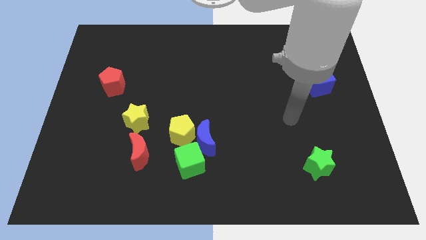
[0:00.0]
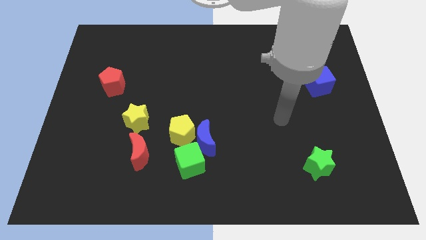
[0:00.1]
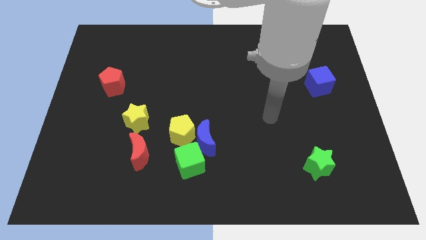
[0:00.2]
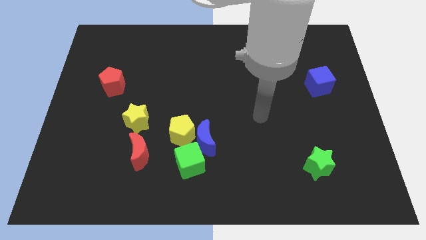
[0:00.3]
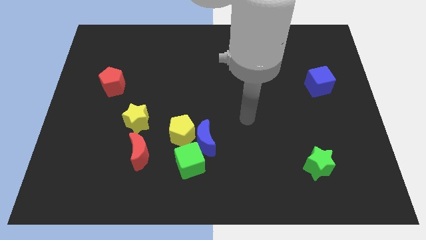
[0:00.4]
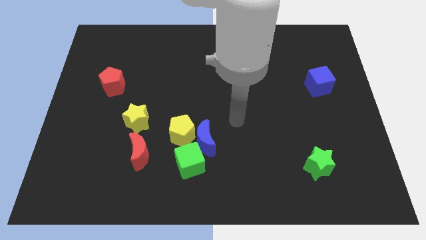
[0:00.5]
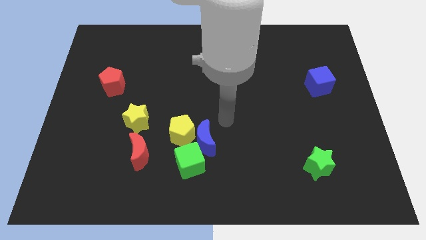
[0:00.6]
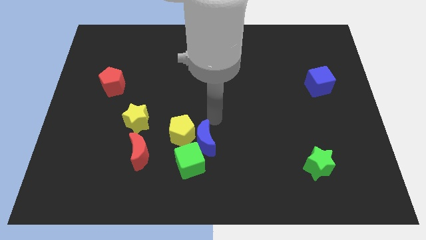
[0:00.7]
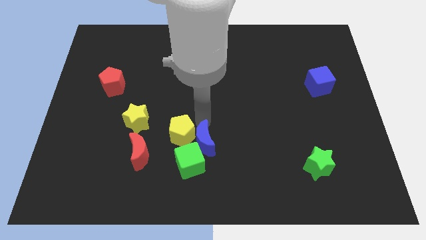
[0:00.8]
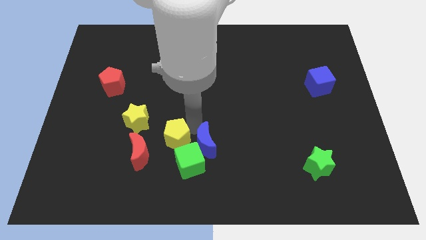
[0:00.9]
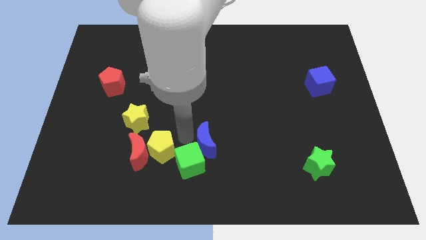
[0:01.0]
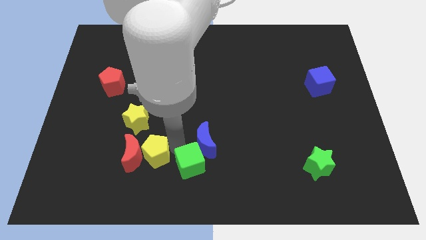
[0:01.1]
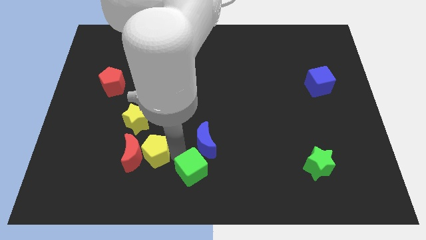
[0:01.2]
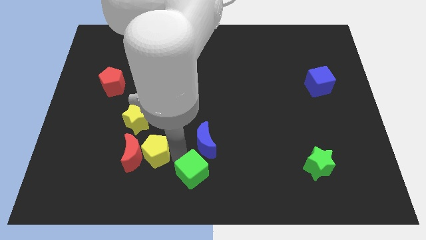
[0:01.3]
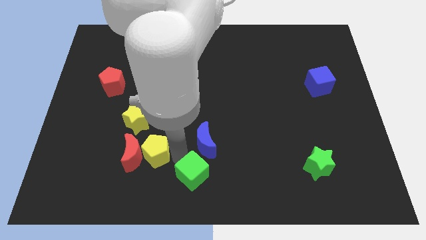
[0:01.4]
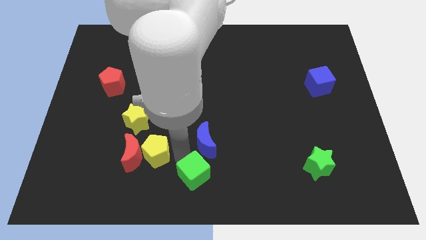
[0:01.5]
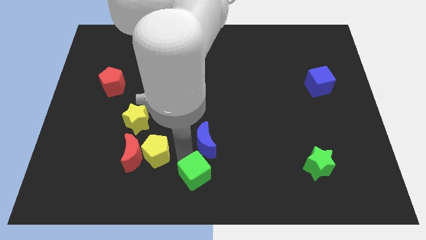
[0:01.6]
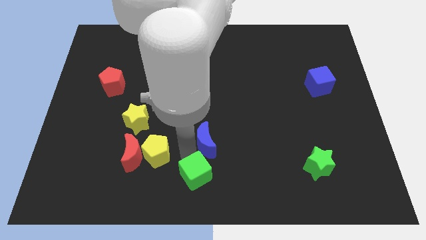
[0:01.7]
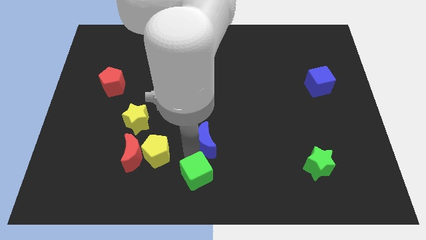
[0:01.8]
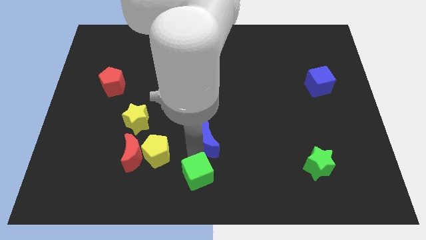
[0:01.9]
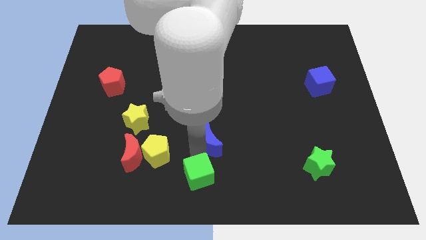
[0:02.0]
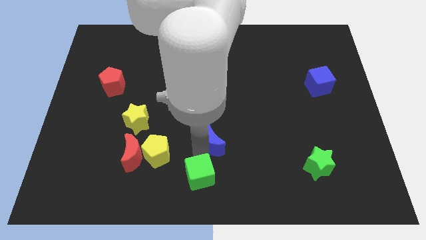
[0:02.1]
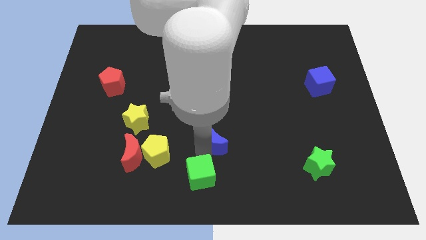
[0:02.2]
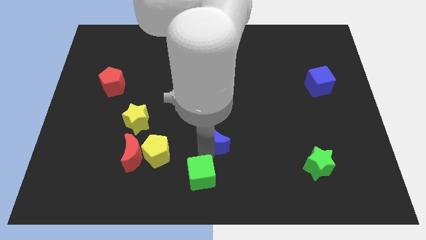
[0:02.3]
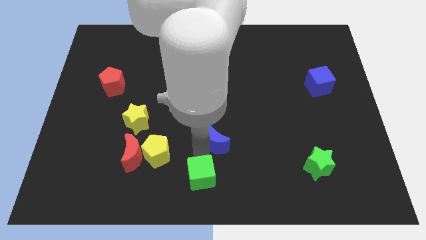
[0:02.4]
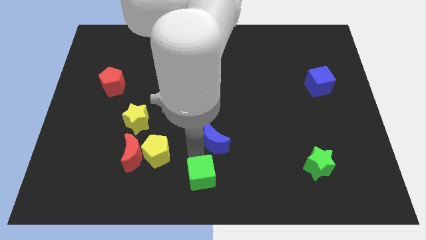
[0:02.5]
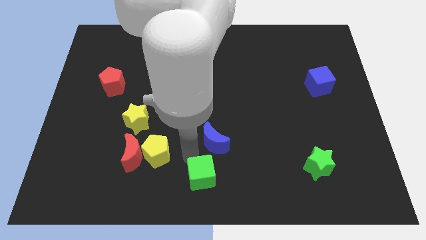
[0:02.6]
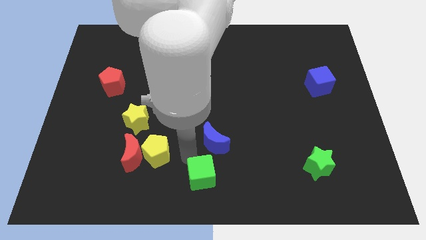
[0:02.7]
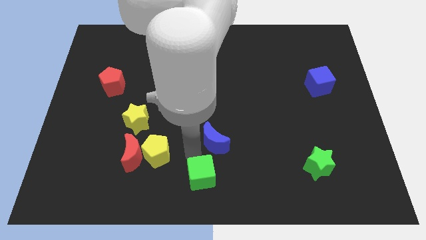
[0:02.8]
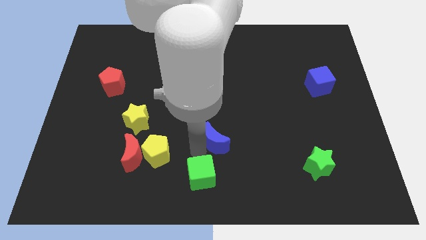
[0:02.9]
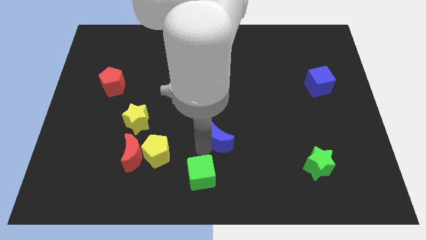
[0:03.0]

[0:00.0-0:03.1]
separate the blue moon from the yellow pentagon and green cube

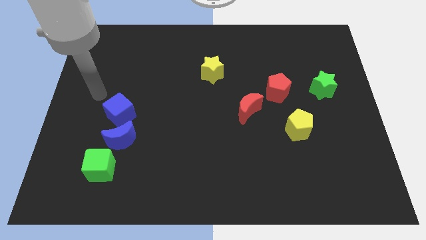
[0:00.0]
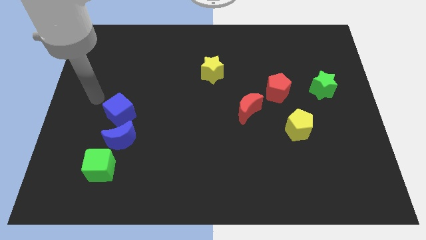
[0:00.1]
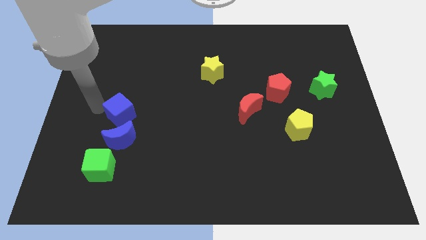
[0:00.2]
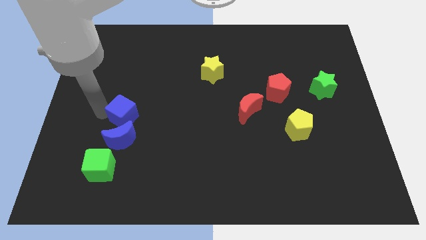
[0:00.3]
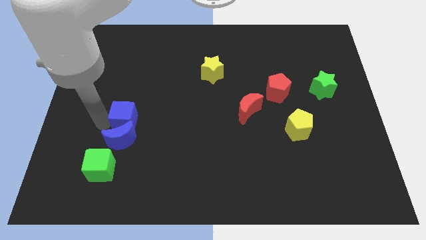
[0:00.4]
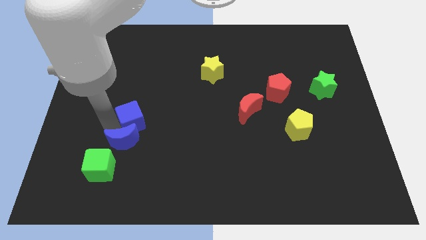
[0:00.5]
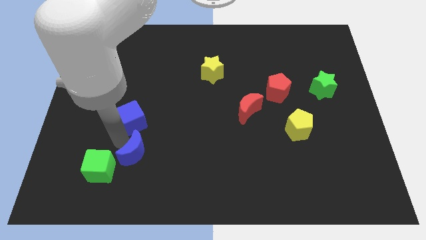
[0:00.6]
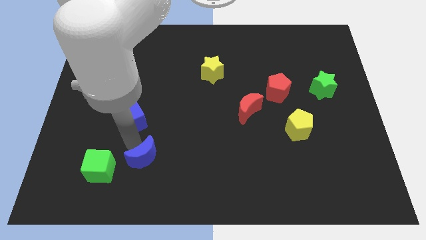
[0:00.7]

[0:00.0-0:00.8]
separate the blue cube from the blue moon

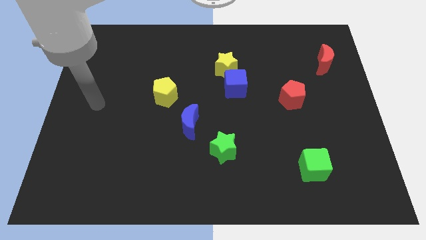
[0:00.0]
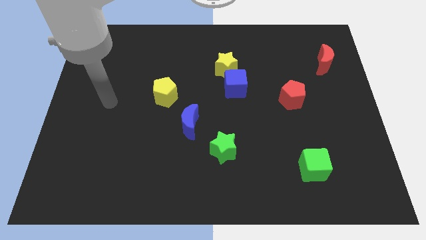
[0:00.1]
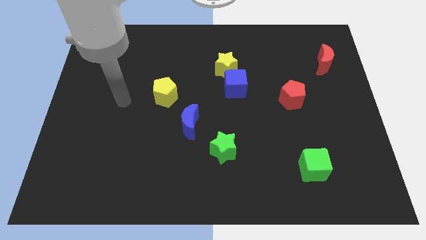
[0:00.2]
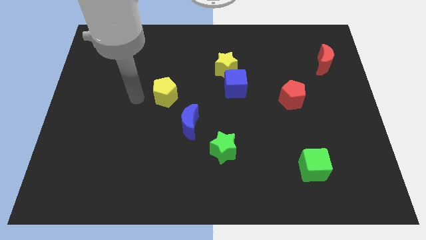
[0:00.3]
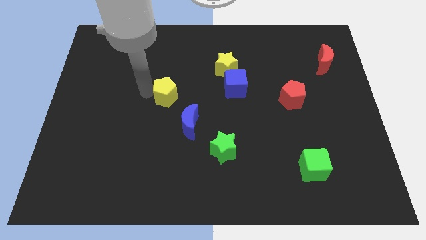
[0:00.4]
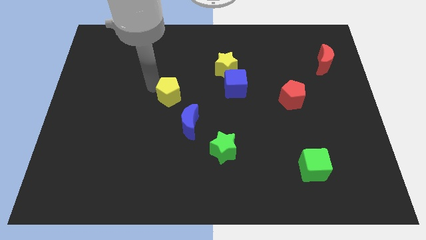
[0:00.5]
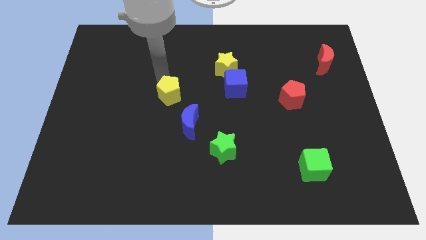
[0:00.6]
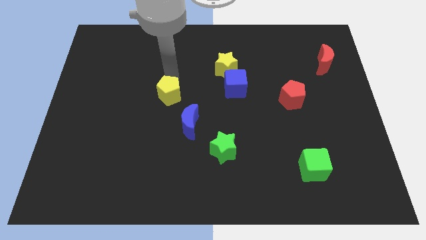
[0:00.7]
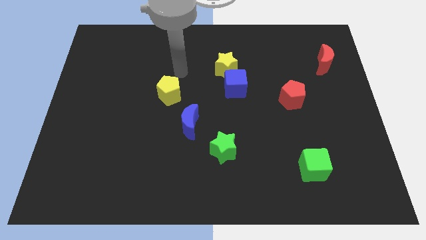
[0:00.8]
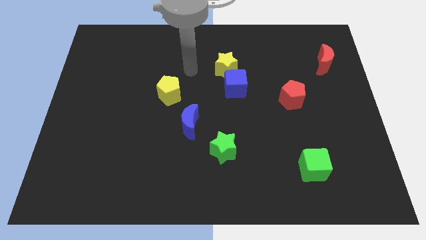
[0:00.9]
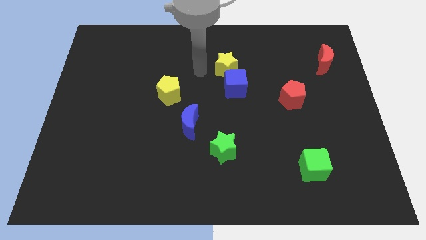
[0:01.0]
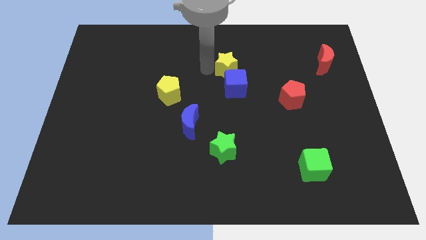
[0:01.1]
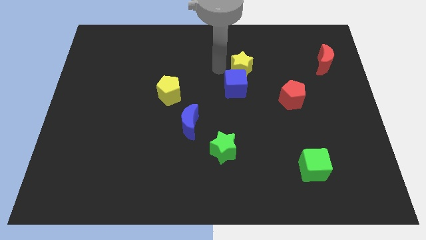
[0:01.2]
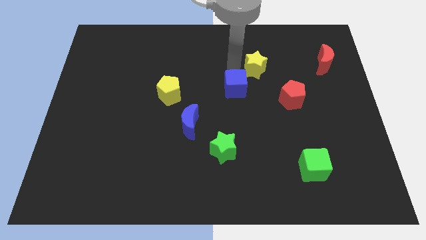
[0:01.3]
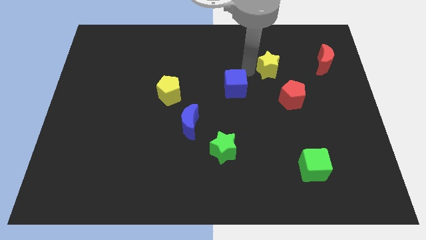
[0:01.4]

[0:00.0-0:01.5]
move the blue cube away from the yellow star

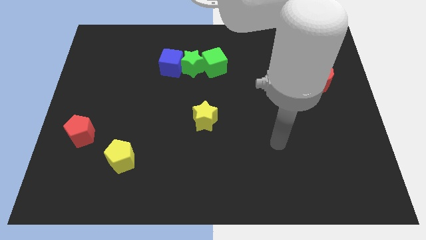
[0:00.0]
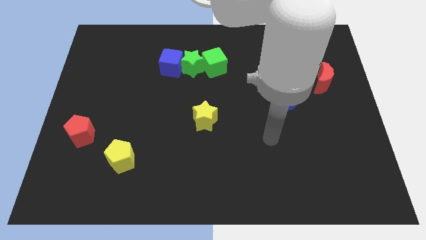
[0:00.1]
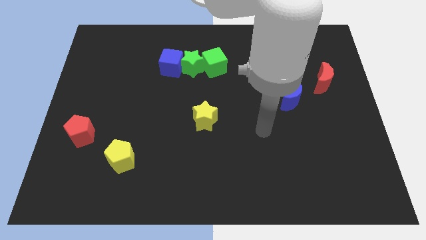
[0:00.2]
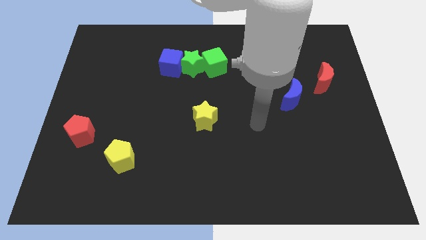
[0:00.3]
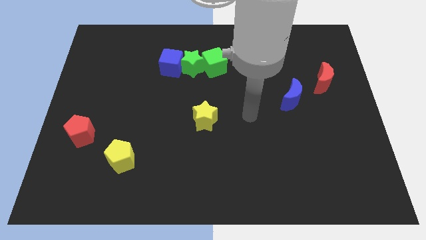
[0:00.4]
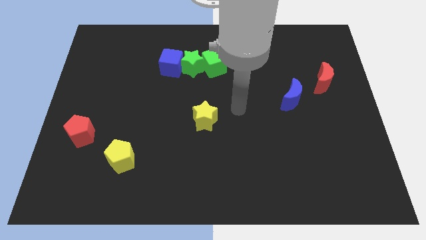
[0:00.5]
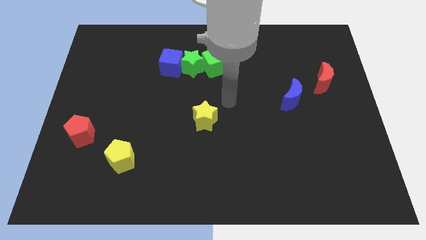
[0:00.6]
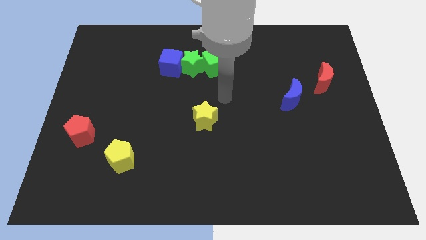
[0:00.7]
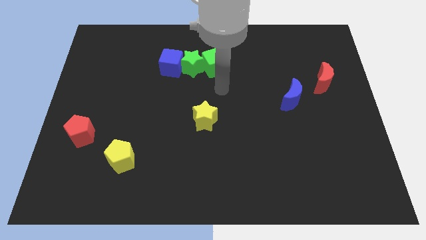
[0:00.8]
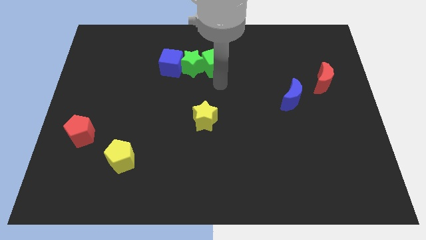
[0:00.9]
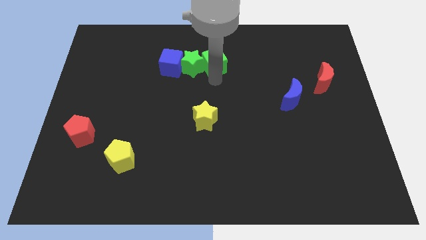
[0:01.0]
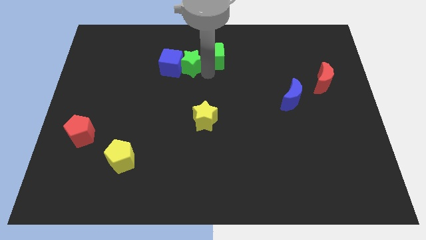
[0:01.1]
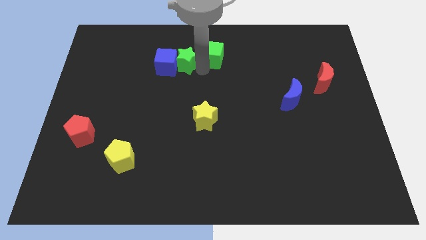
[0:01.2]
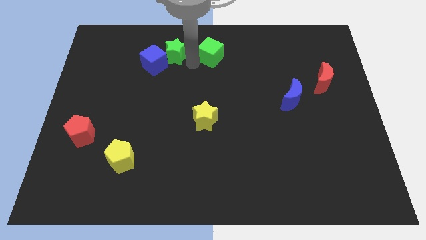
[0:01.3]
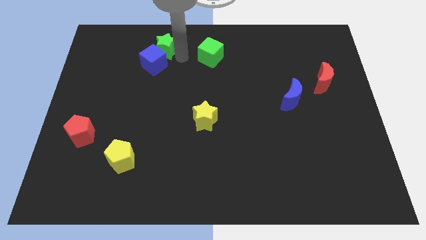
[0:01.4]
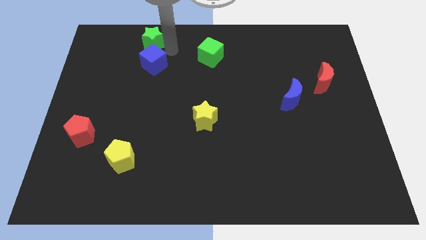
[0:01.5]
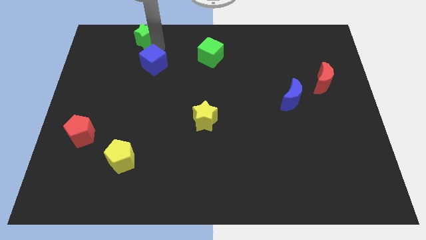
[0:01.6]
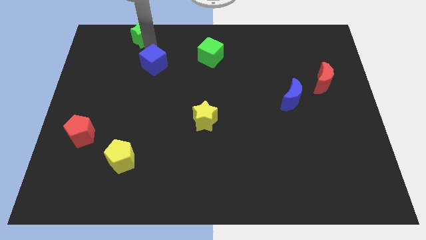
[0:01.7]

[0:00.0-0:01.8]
pull the blue cube apart from the green star

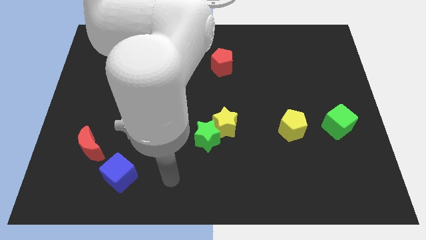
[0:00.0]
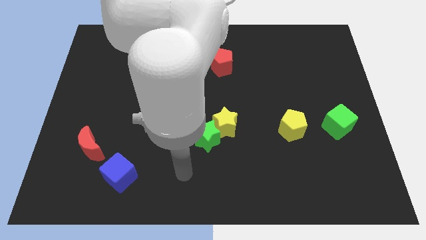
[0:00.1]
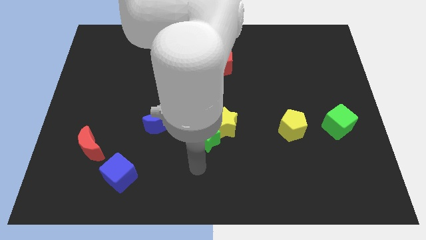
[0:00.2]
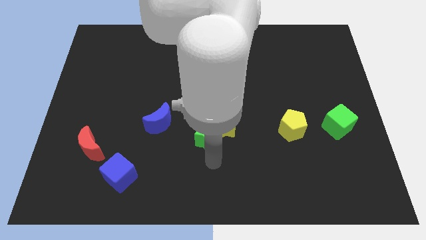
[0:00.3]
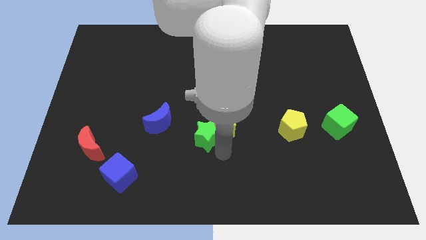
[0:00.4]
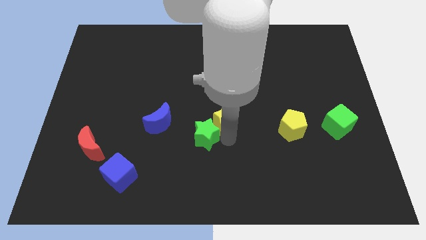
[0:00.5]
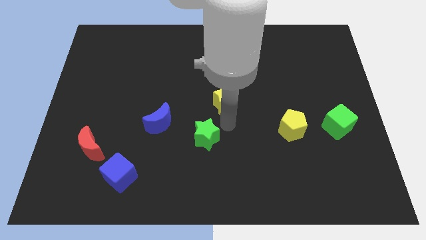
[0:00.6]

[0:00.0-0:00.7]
separate the green star from the yellow star

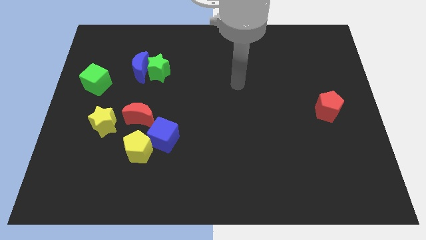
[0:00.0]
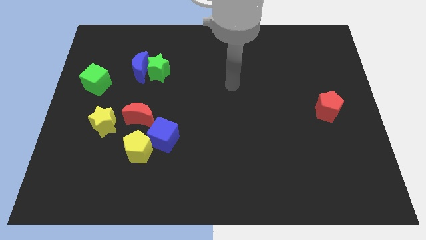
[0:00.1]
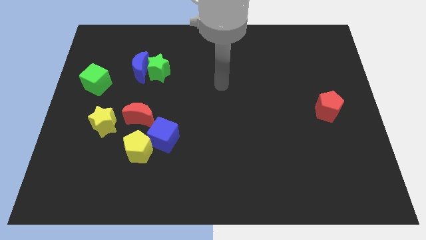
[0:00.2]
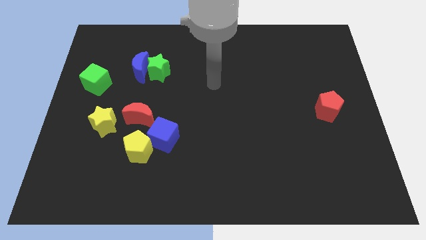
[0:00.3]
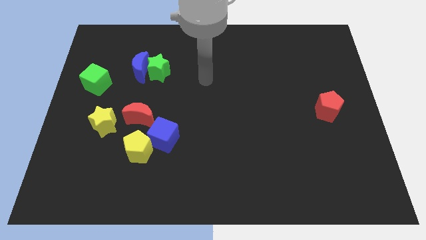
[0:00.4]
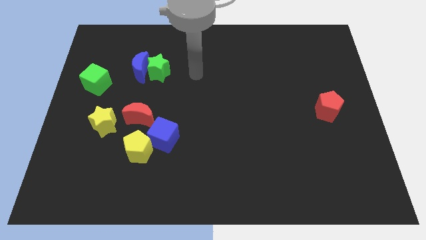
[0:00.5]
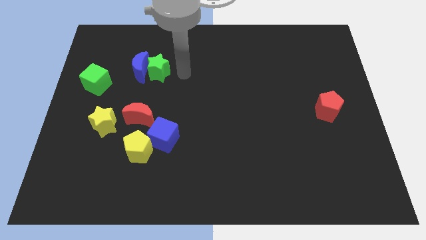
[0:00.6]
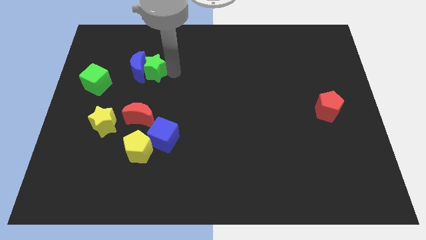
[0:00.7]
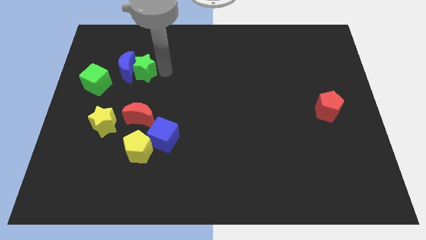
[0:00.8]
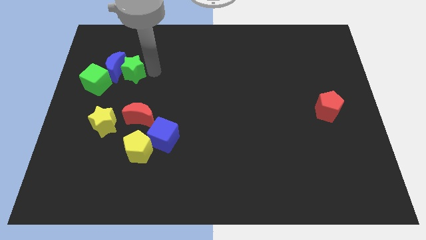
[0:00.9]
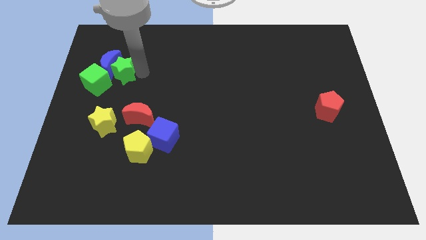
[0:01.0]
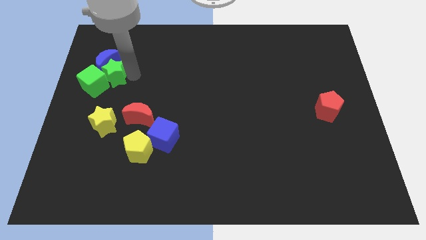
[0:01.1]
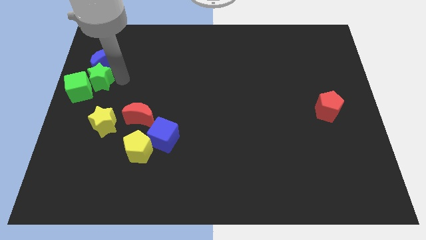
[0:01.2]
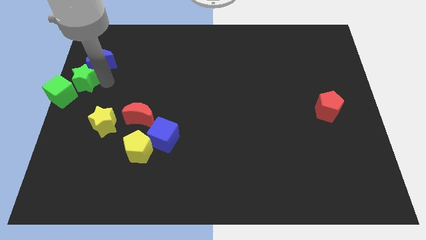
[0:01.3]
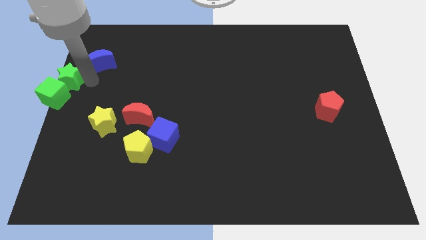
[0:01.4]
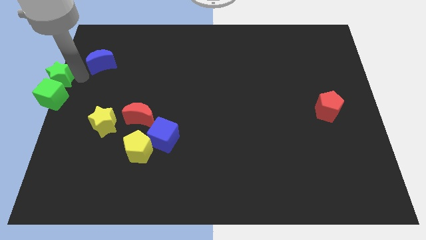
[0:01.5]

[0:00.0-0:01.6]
separate the blue moon from the green star
